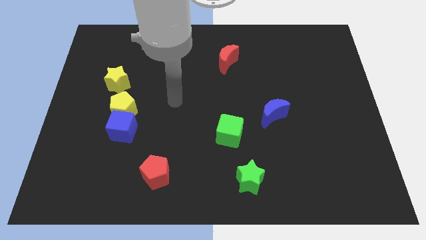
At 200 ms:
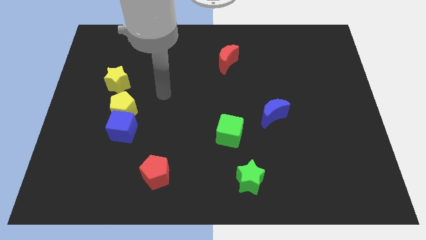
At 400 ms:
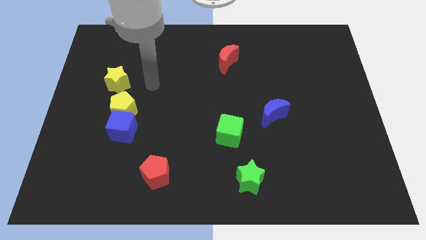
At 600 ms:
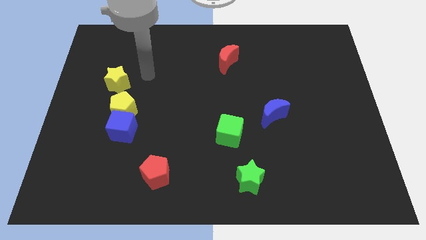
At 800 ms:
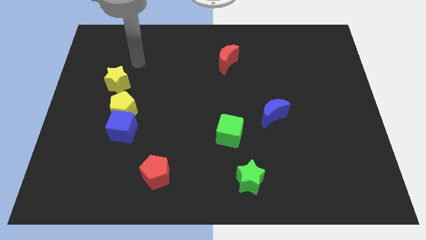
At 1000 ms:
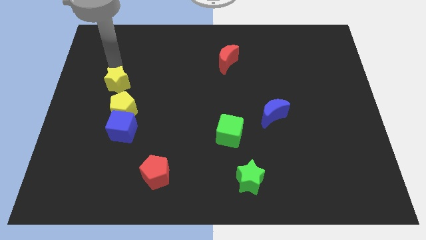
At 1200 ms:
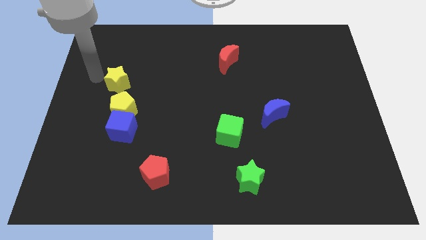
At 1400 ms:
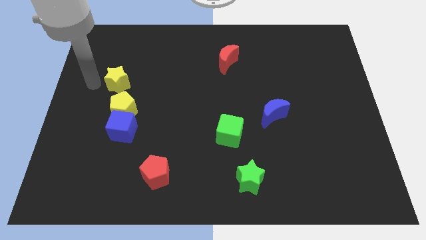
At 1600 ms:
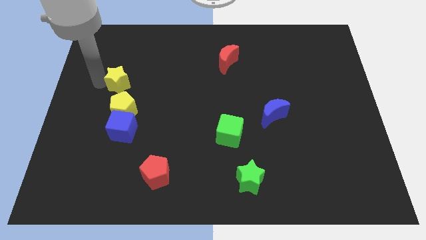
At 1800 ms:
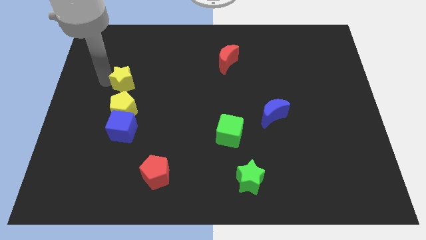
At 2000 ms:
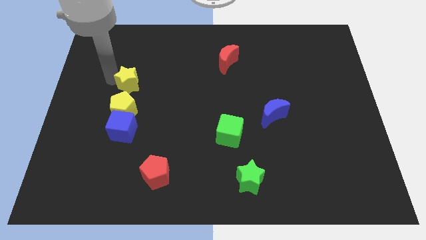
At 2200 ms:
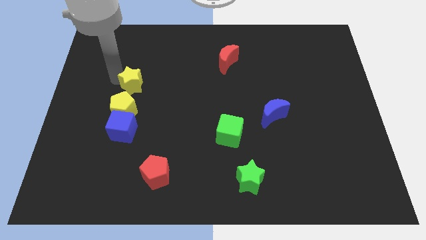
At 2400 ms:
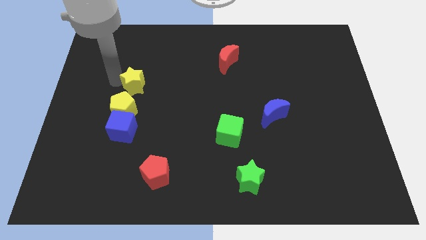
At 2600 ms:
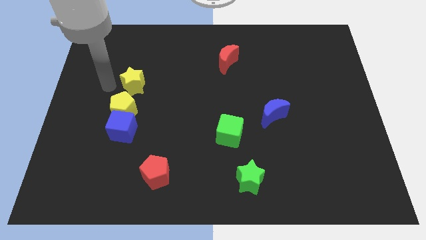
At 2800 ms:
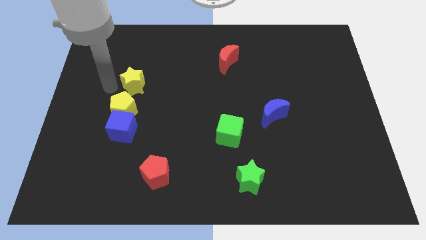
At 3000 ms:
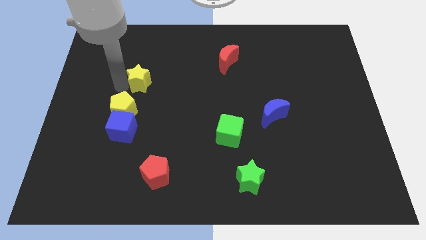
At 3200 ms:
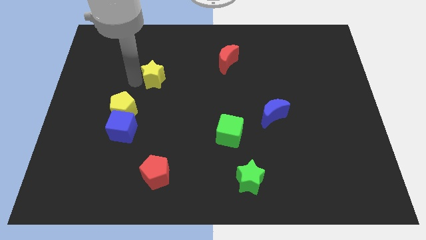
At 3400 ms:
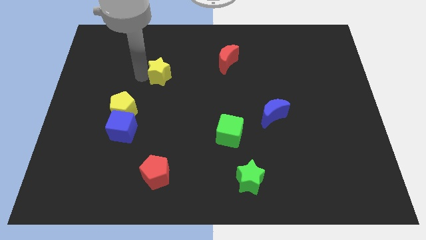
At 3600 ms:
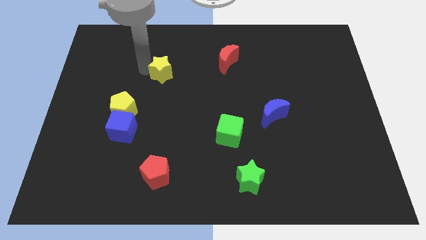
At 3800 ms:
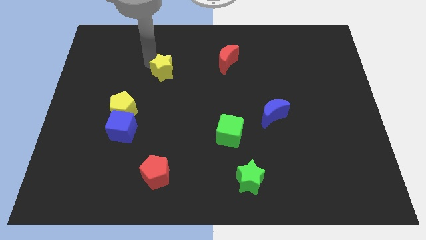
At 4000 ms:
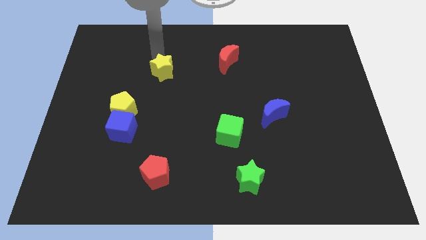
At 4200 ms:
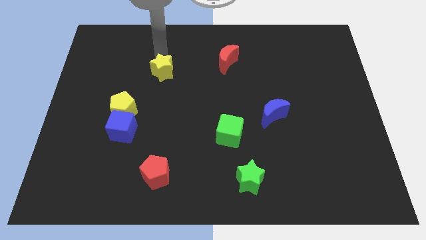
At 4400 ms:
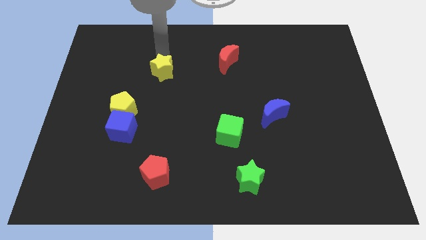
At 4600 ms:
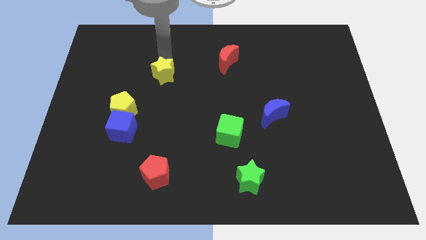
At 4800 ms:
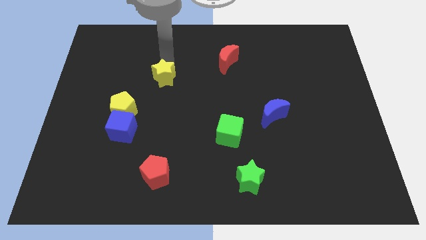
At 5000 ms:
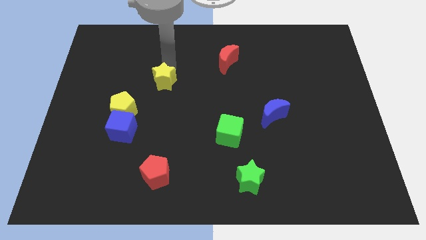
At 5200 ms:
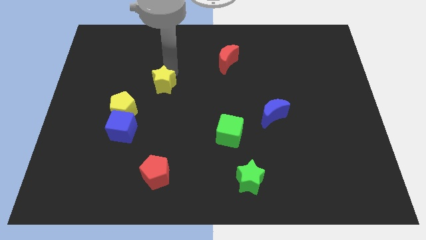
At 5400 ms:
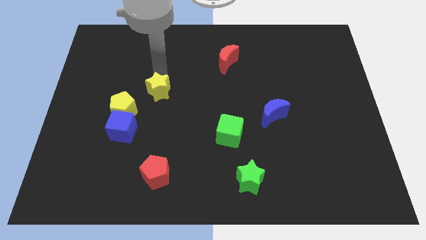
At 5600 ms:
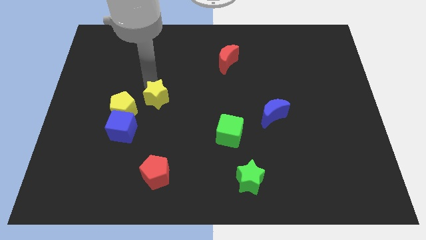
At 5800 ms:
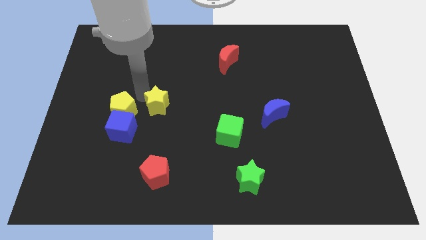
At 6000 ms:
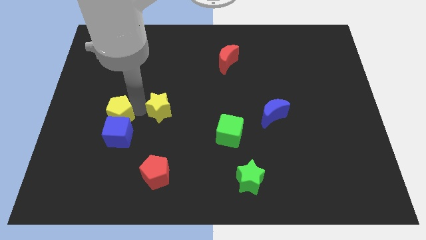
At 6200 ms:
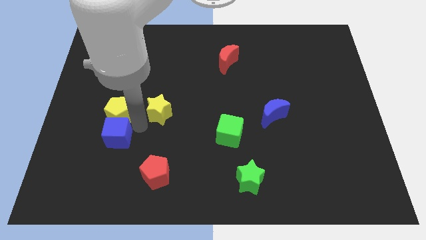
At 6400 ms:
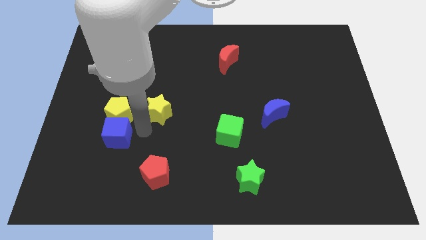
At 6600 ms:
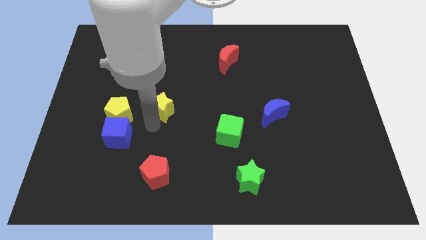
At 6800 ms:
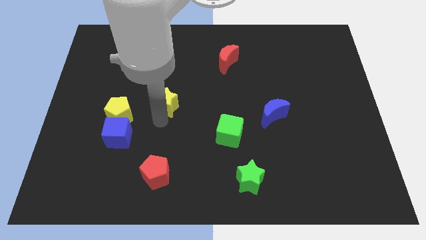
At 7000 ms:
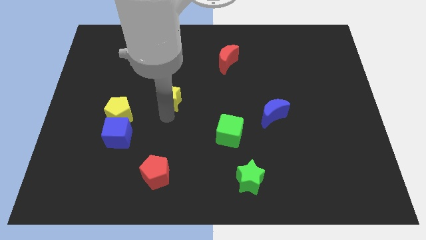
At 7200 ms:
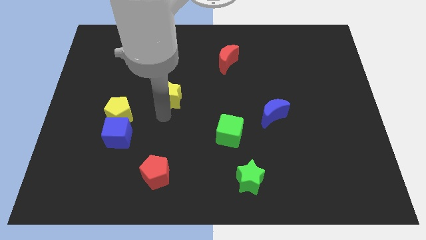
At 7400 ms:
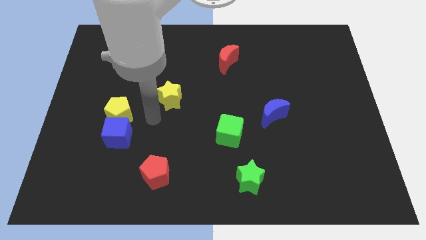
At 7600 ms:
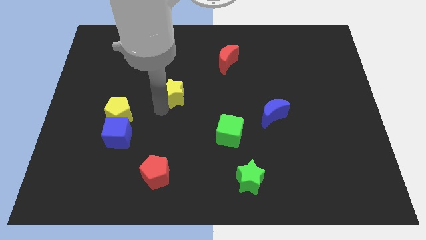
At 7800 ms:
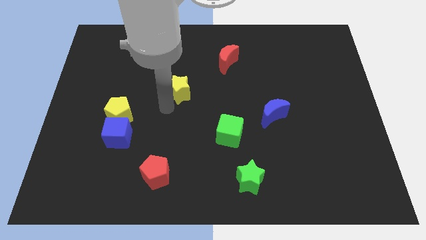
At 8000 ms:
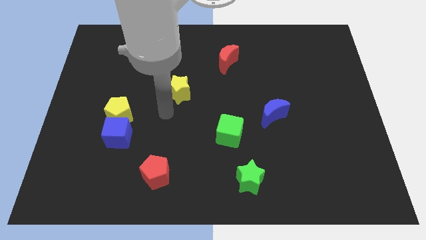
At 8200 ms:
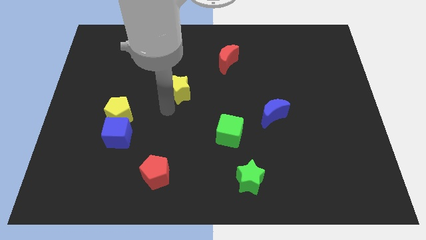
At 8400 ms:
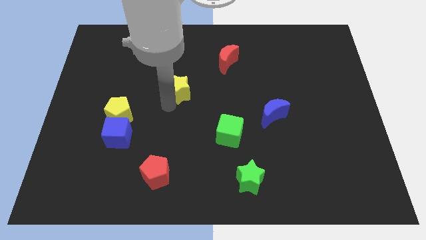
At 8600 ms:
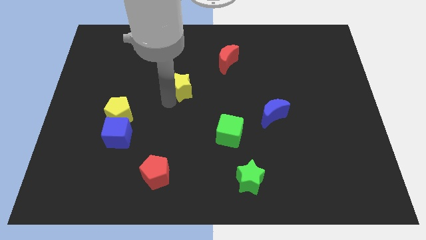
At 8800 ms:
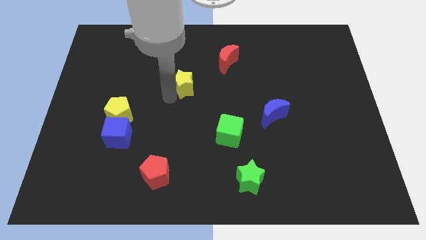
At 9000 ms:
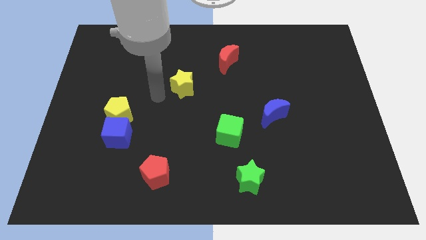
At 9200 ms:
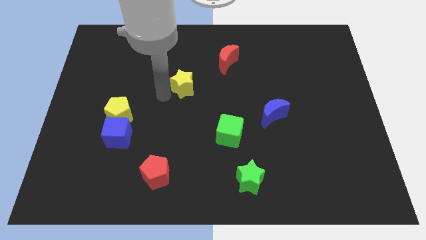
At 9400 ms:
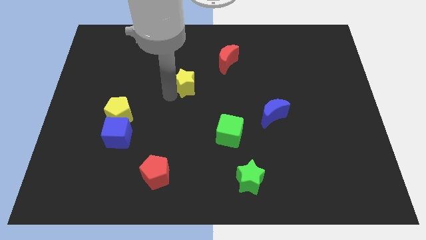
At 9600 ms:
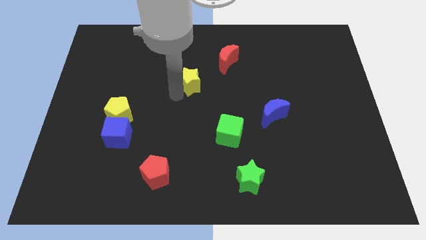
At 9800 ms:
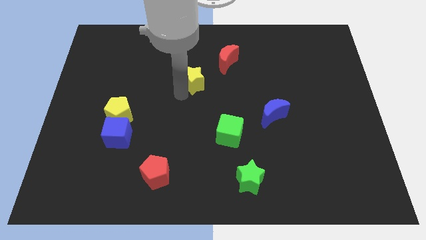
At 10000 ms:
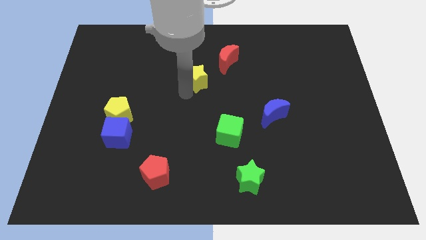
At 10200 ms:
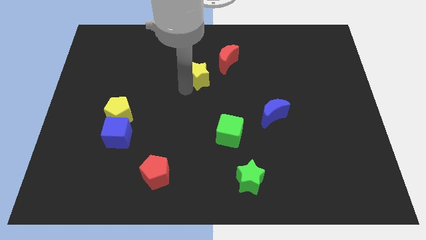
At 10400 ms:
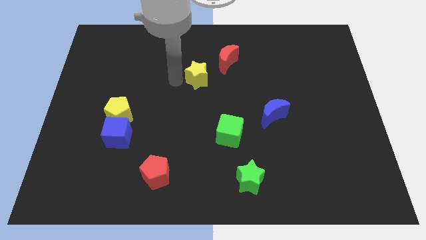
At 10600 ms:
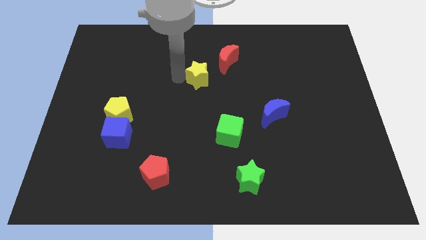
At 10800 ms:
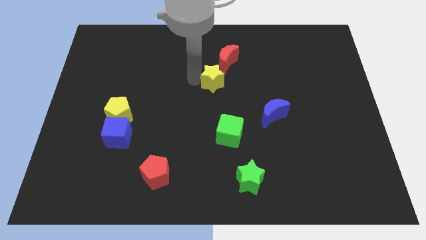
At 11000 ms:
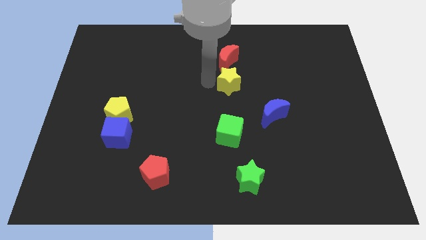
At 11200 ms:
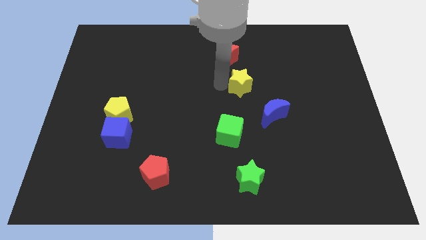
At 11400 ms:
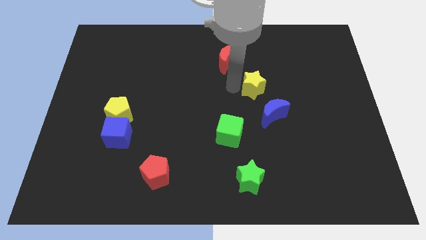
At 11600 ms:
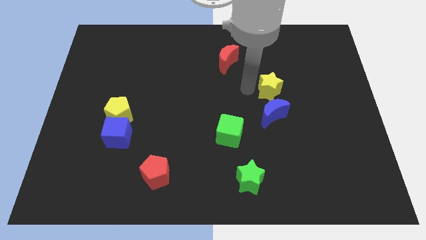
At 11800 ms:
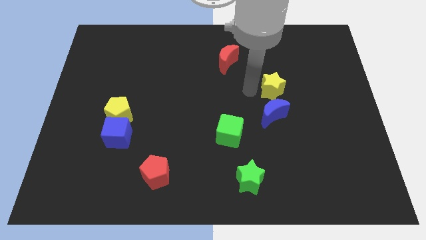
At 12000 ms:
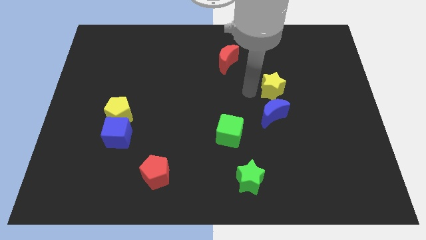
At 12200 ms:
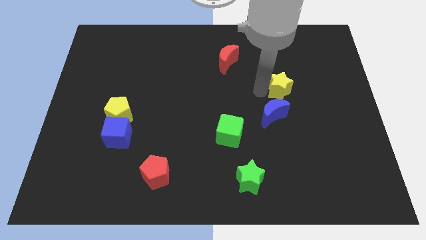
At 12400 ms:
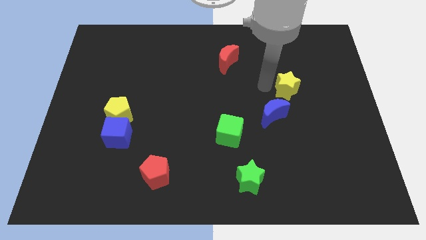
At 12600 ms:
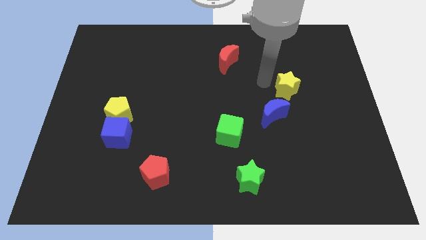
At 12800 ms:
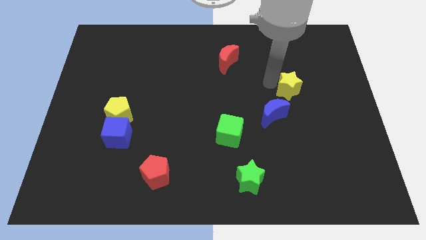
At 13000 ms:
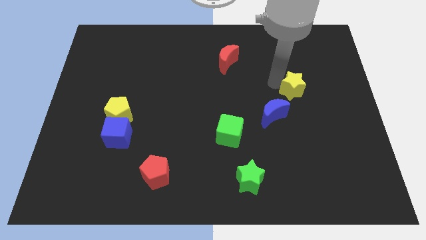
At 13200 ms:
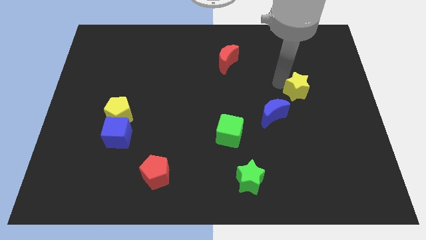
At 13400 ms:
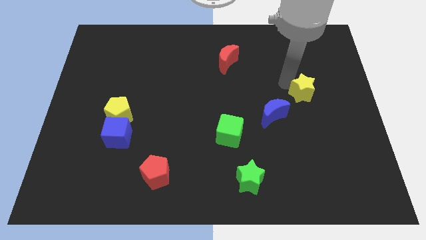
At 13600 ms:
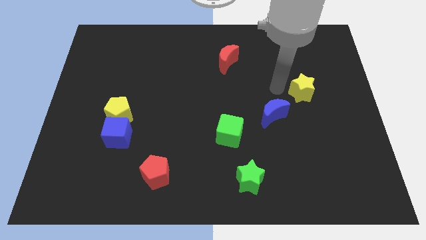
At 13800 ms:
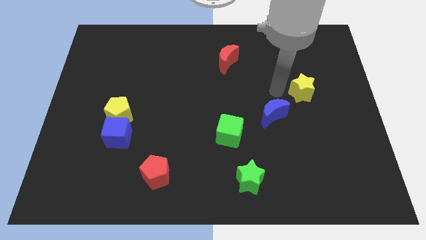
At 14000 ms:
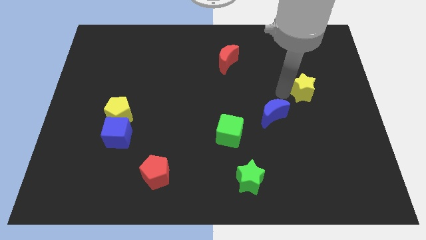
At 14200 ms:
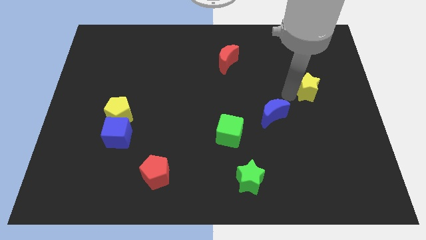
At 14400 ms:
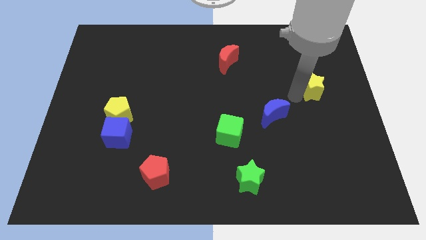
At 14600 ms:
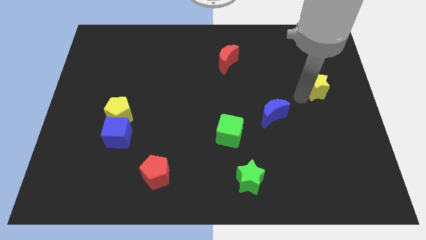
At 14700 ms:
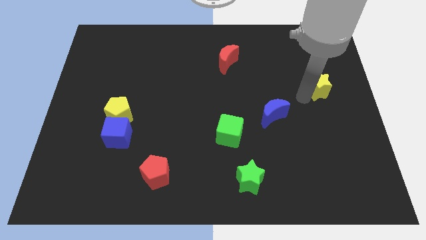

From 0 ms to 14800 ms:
move the yellow star to the right side
